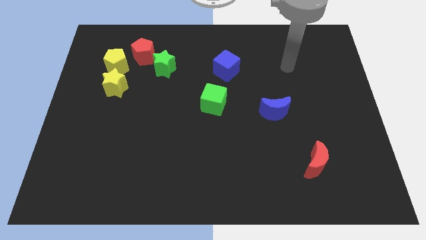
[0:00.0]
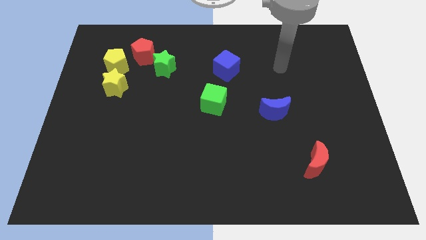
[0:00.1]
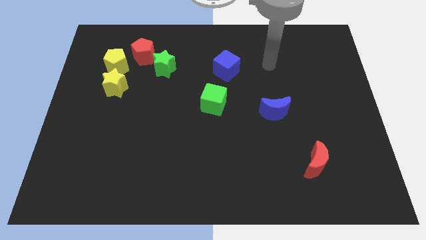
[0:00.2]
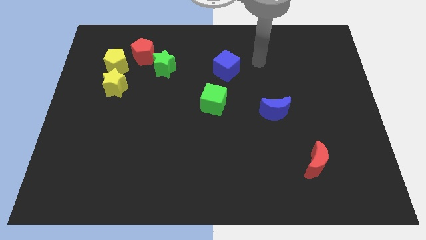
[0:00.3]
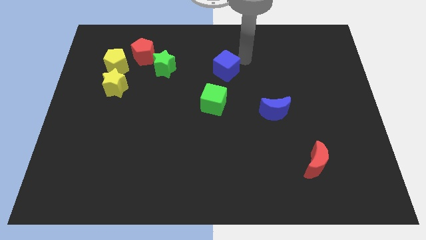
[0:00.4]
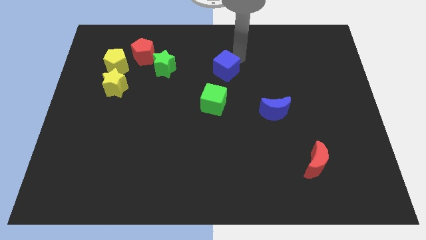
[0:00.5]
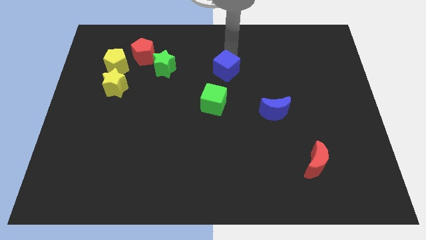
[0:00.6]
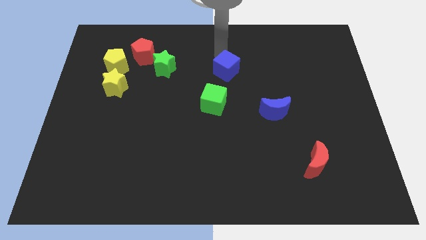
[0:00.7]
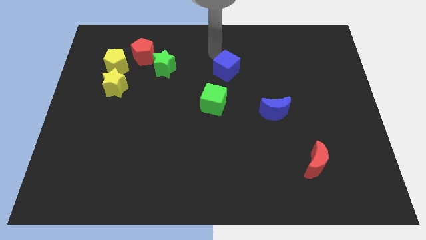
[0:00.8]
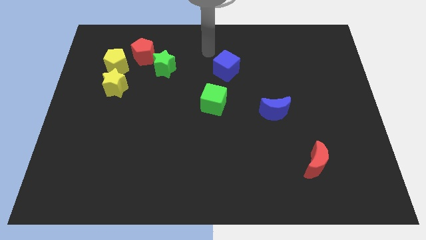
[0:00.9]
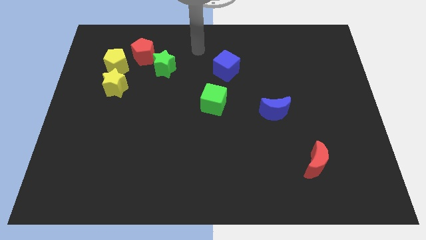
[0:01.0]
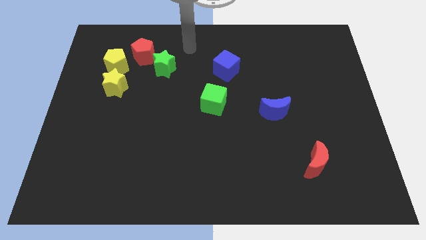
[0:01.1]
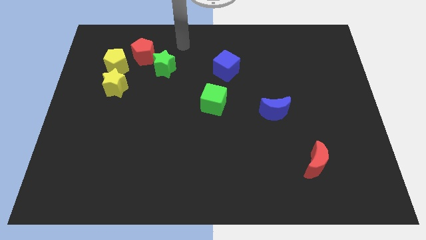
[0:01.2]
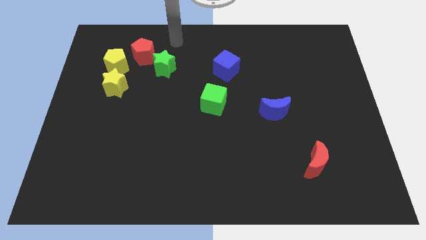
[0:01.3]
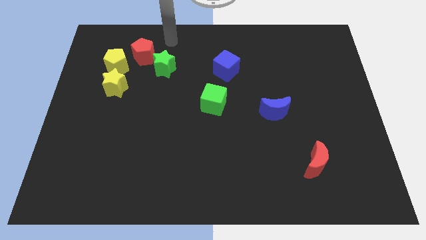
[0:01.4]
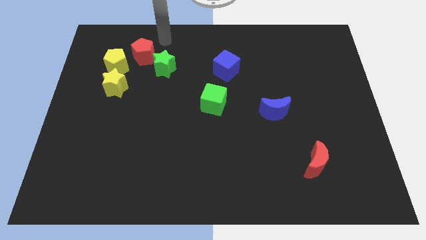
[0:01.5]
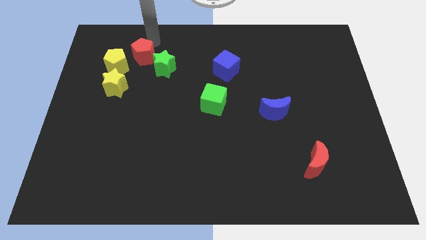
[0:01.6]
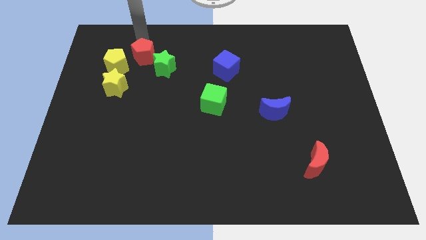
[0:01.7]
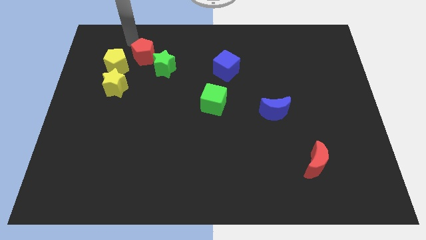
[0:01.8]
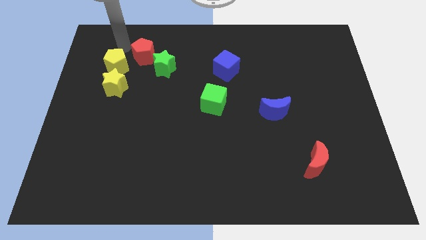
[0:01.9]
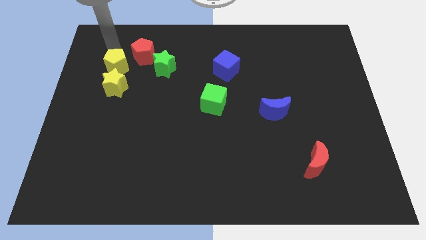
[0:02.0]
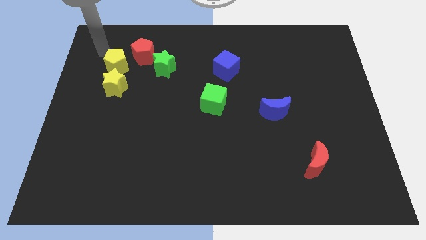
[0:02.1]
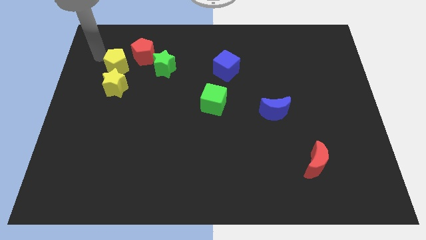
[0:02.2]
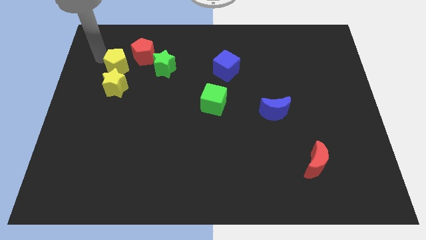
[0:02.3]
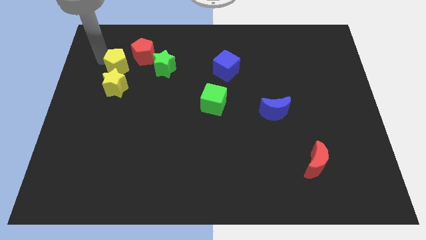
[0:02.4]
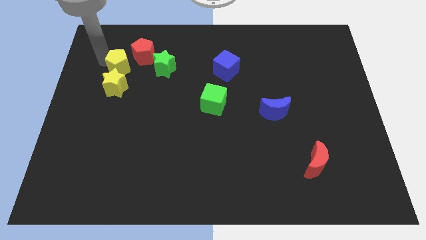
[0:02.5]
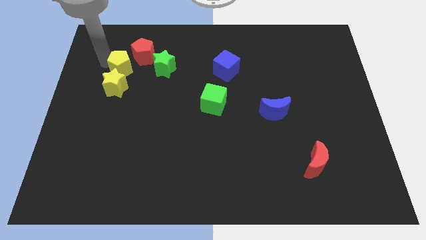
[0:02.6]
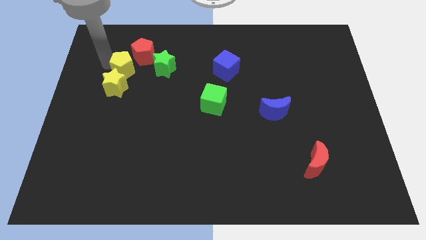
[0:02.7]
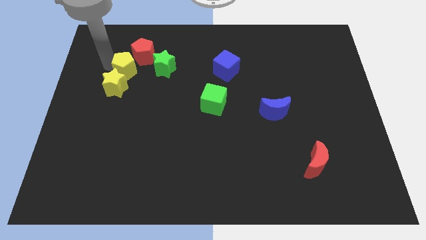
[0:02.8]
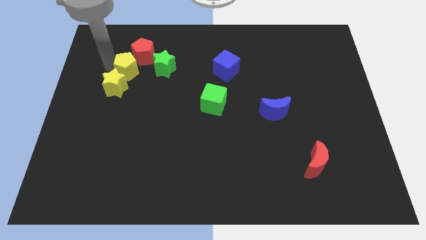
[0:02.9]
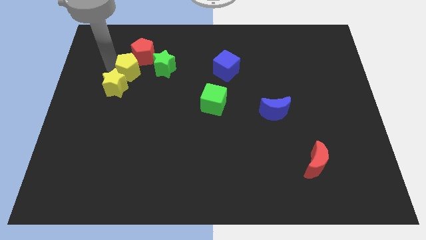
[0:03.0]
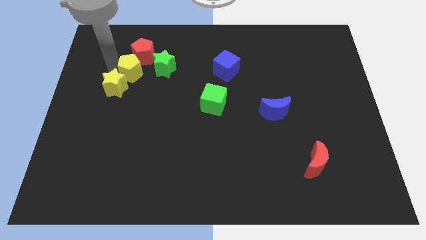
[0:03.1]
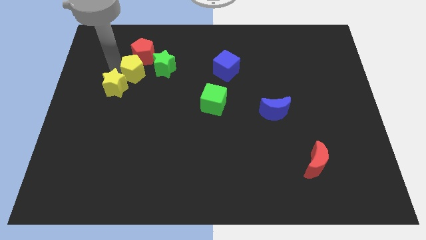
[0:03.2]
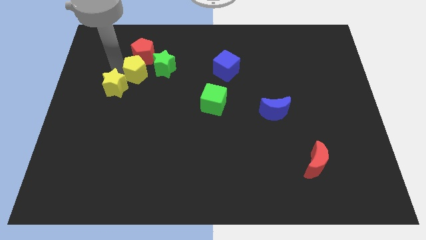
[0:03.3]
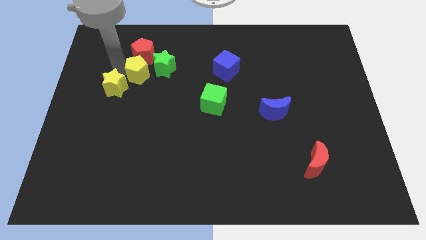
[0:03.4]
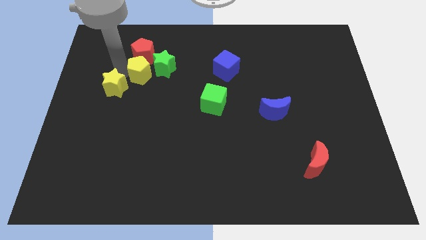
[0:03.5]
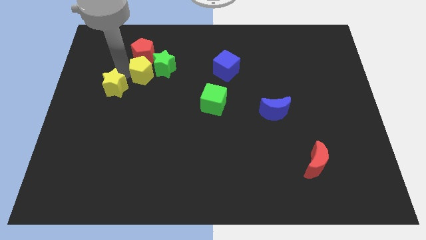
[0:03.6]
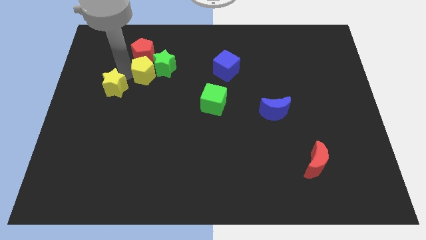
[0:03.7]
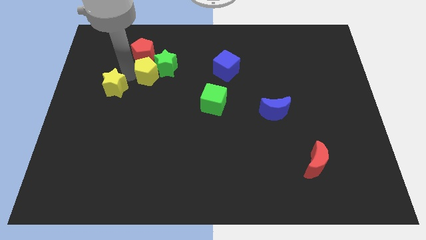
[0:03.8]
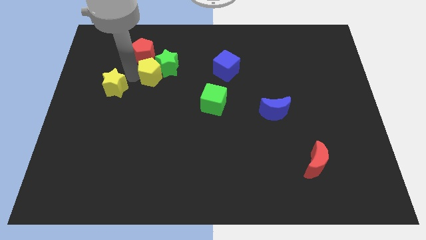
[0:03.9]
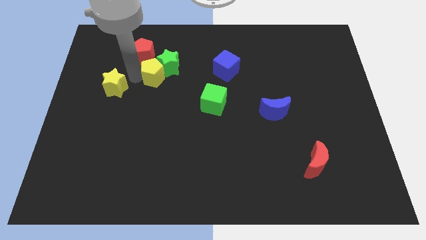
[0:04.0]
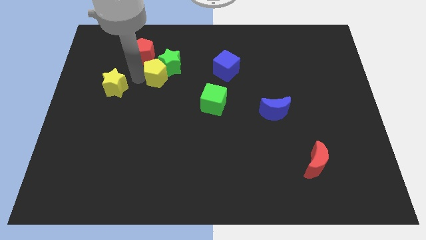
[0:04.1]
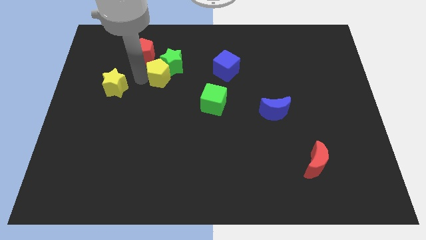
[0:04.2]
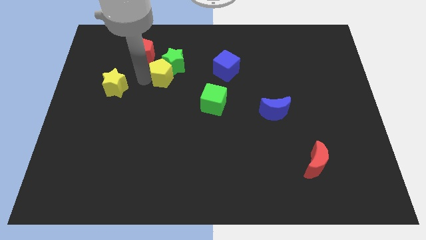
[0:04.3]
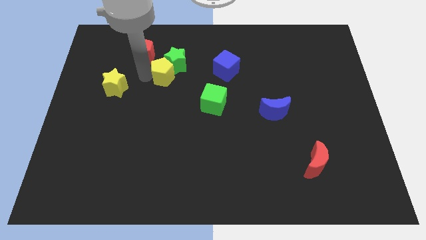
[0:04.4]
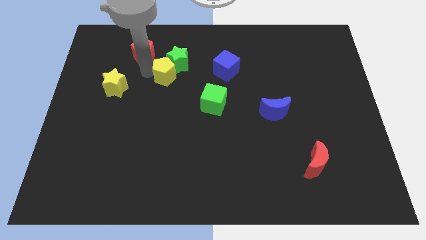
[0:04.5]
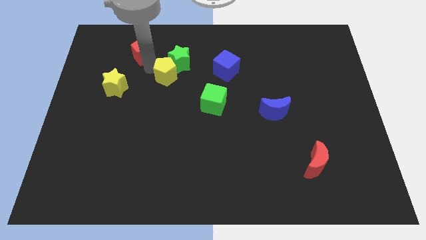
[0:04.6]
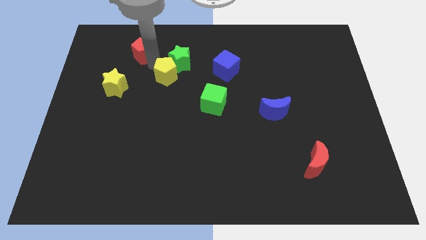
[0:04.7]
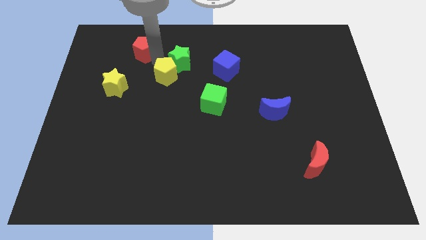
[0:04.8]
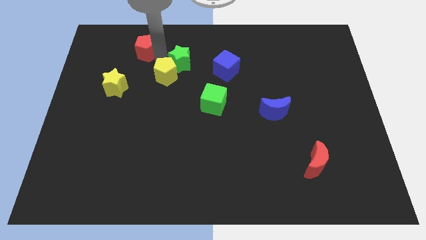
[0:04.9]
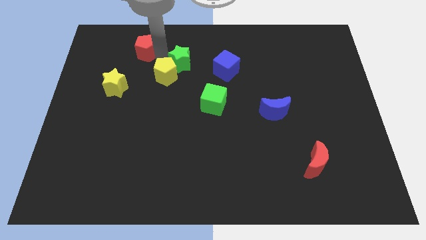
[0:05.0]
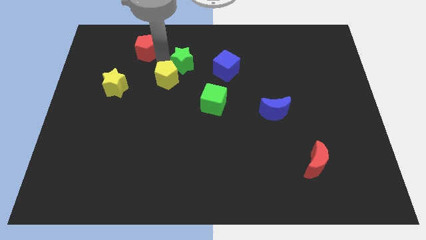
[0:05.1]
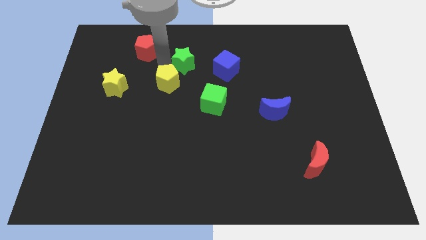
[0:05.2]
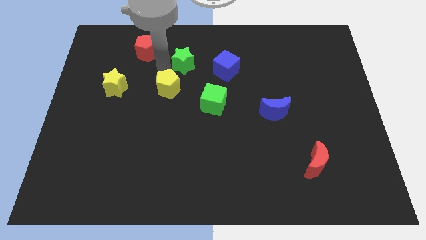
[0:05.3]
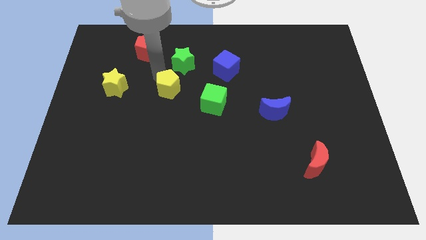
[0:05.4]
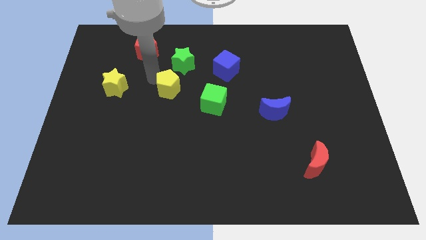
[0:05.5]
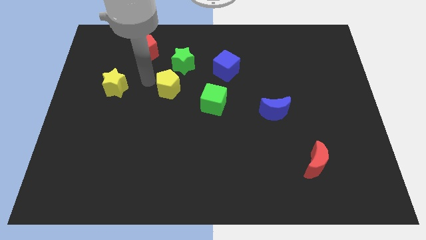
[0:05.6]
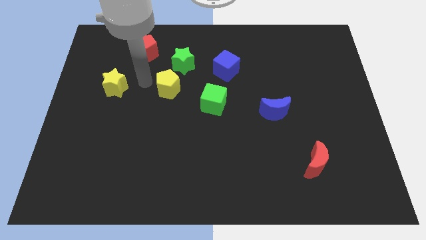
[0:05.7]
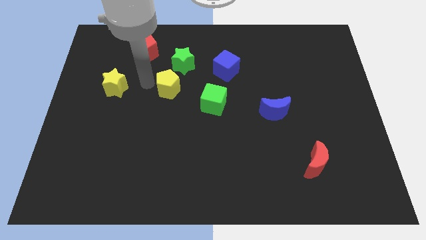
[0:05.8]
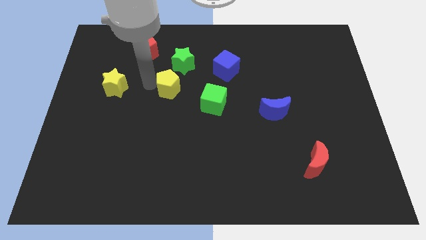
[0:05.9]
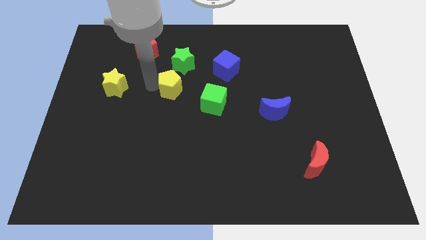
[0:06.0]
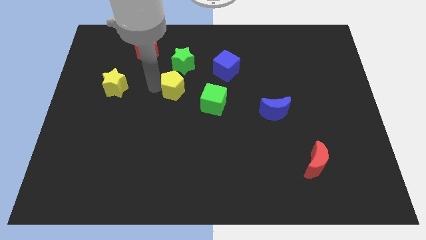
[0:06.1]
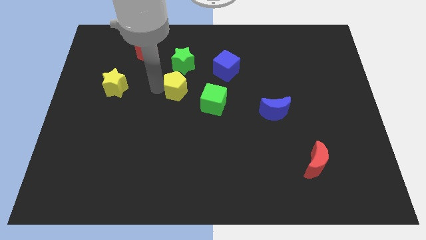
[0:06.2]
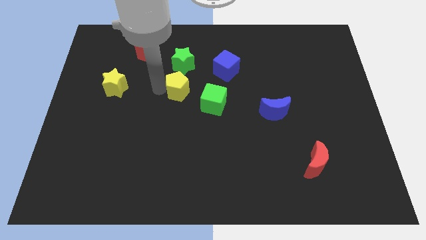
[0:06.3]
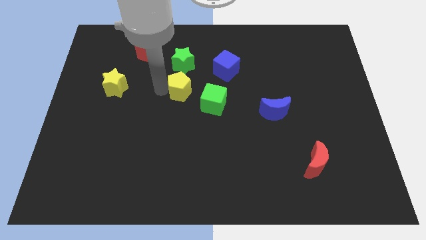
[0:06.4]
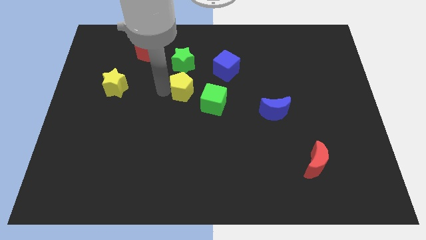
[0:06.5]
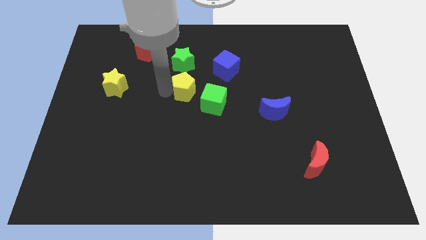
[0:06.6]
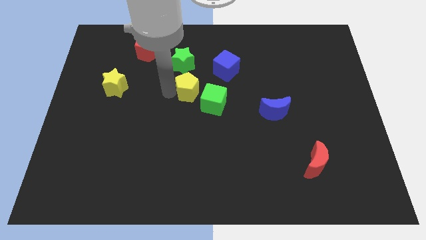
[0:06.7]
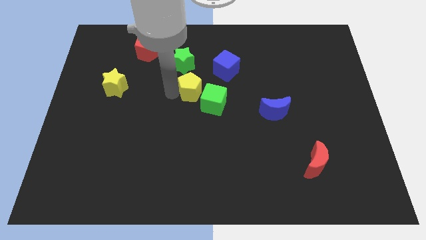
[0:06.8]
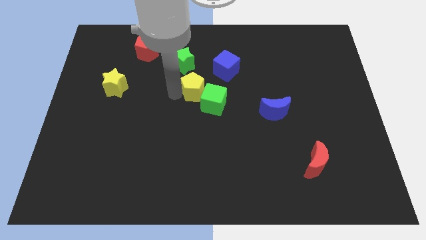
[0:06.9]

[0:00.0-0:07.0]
push the yellow pentagon close to the green cube
